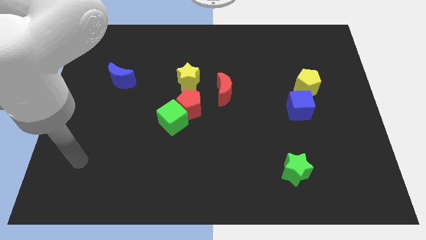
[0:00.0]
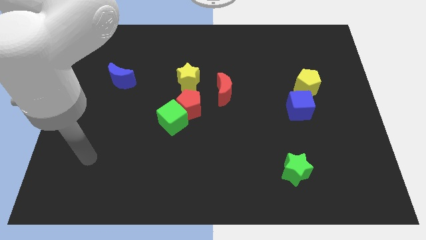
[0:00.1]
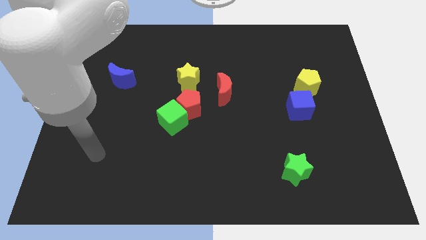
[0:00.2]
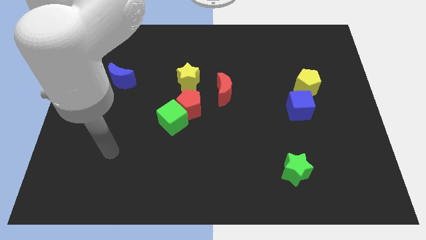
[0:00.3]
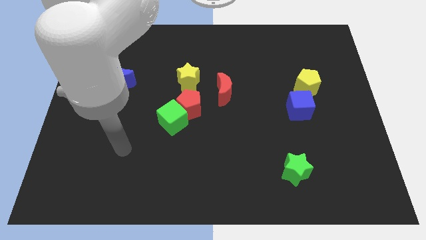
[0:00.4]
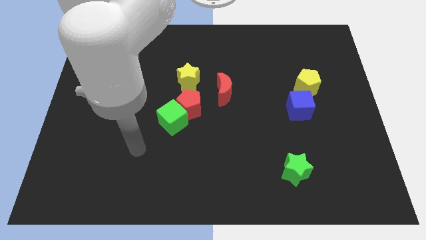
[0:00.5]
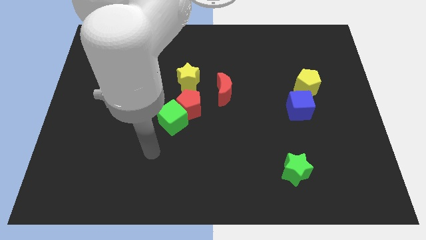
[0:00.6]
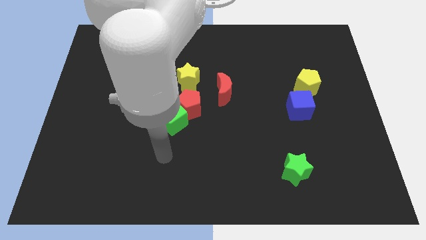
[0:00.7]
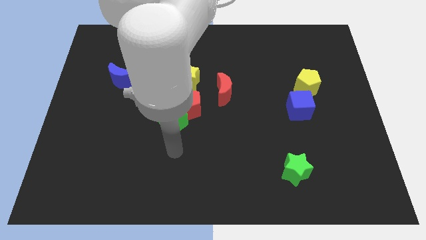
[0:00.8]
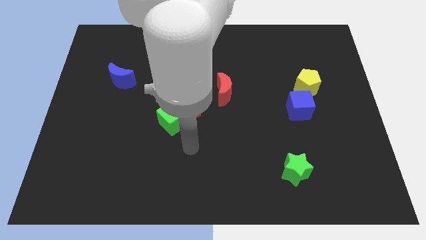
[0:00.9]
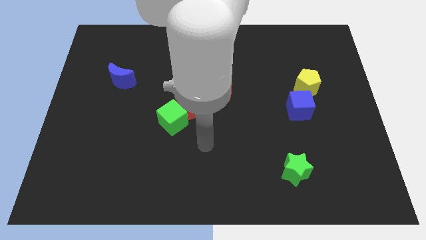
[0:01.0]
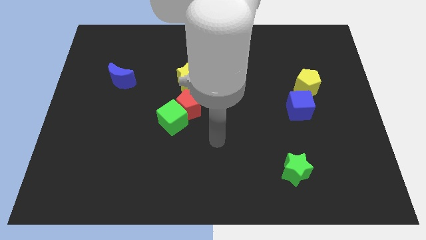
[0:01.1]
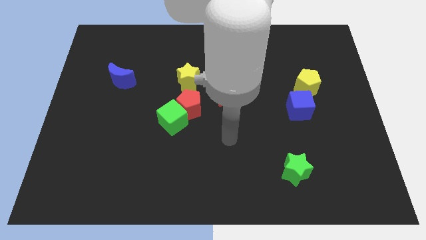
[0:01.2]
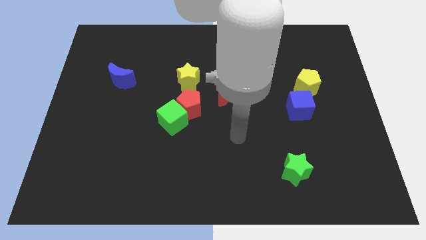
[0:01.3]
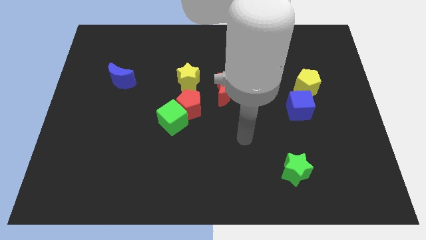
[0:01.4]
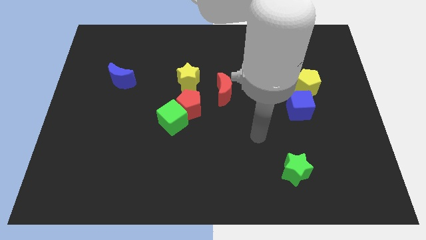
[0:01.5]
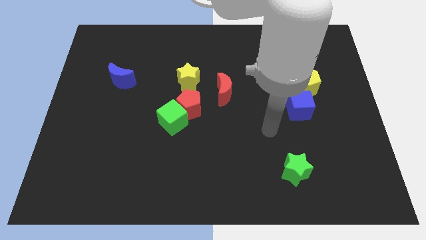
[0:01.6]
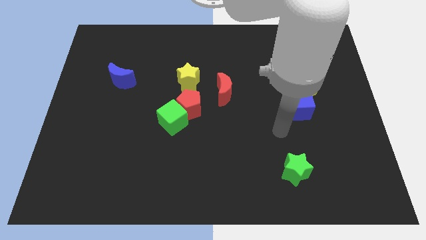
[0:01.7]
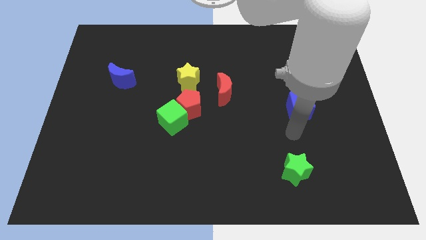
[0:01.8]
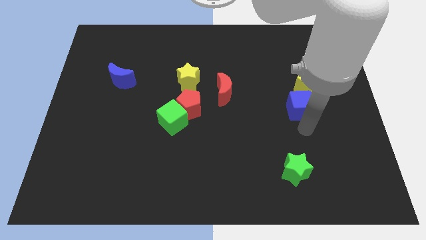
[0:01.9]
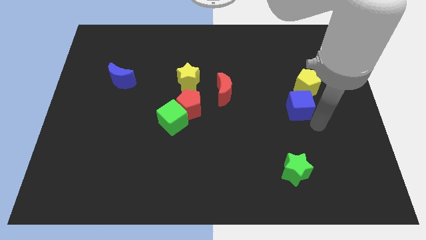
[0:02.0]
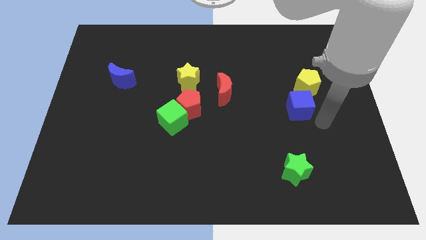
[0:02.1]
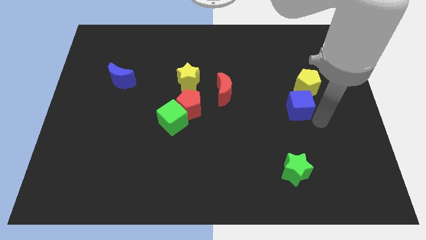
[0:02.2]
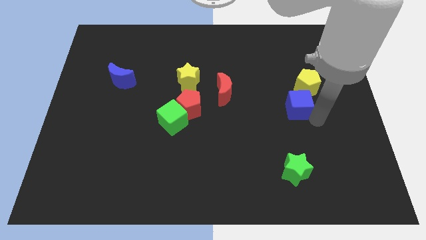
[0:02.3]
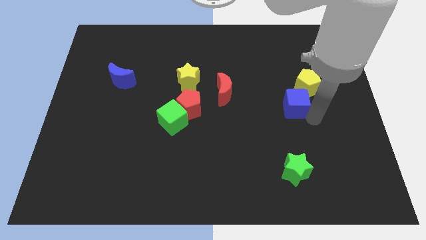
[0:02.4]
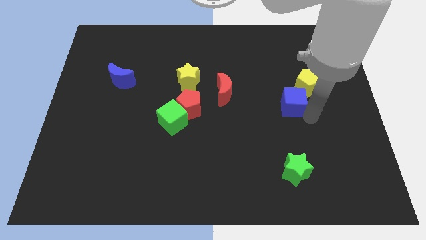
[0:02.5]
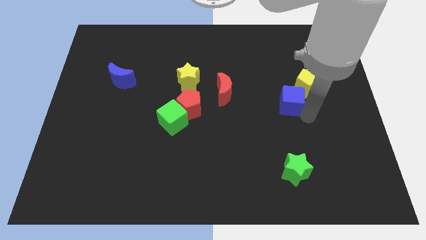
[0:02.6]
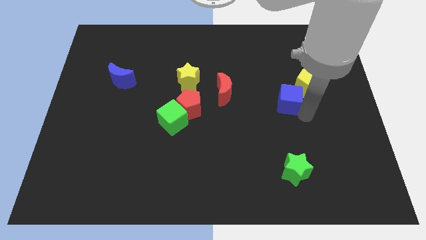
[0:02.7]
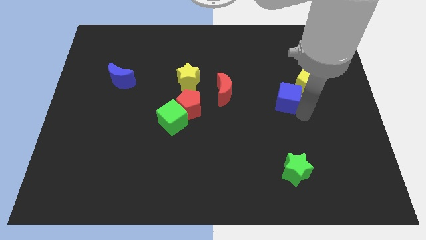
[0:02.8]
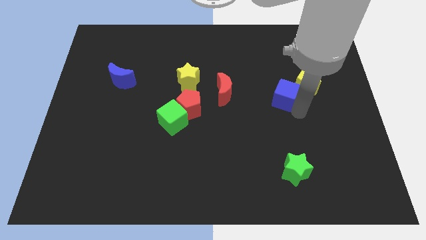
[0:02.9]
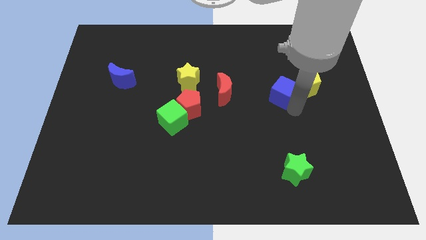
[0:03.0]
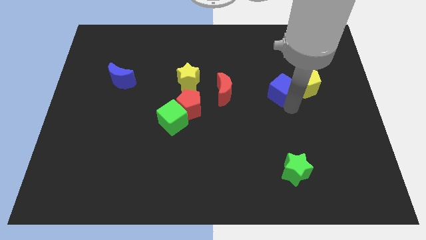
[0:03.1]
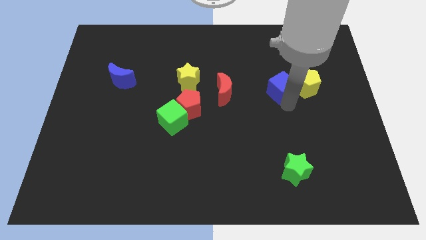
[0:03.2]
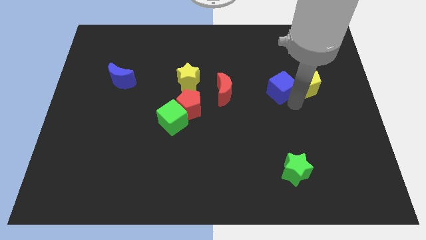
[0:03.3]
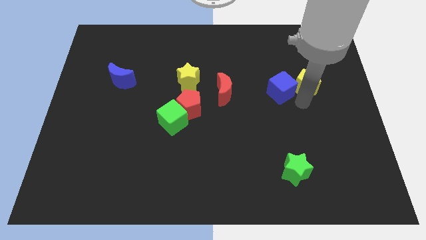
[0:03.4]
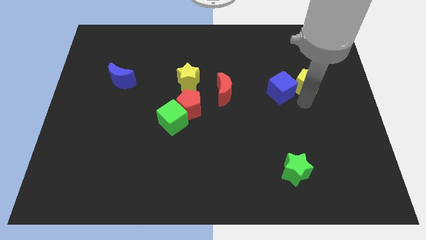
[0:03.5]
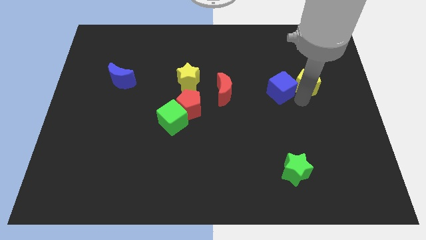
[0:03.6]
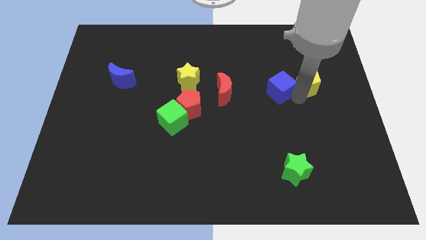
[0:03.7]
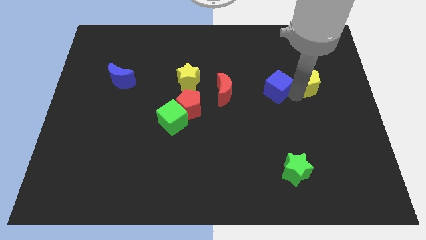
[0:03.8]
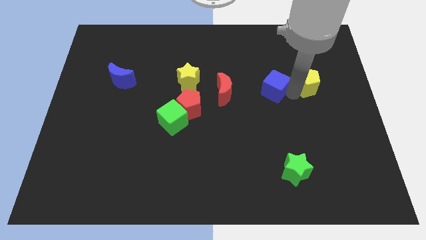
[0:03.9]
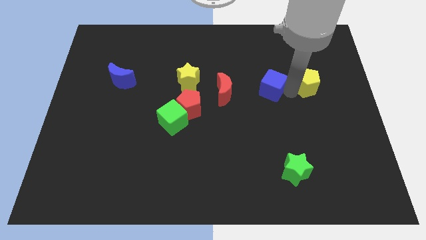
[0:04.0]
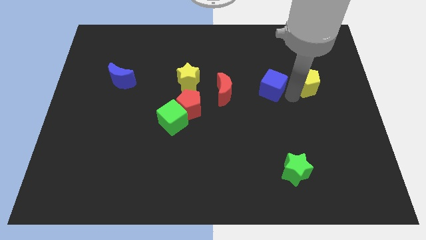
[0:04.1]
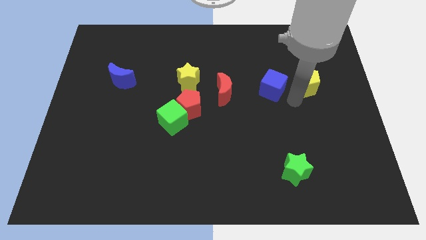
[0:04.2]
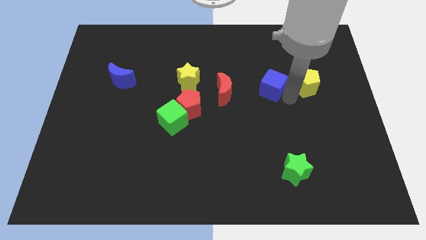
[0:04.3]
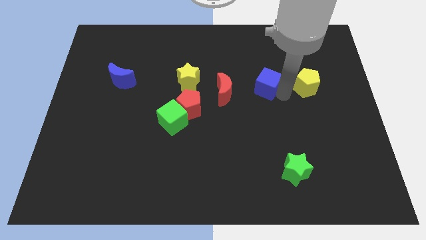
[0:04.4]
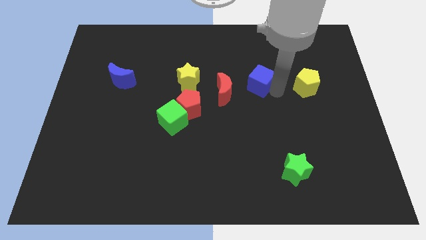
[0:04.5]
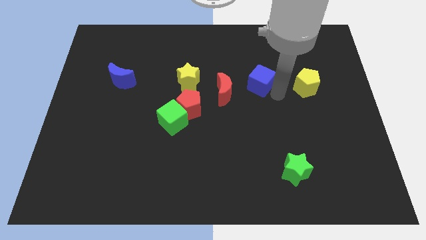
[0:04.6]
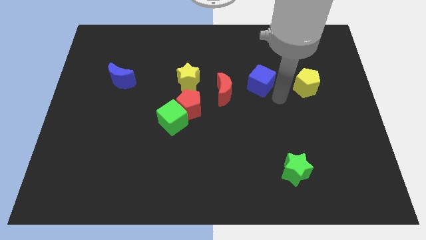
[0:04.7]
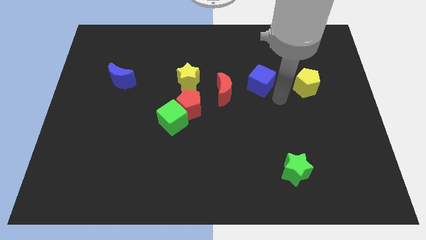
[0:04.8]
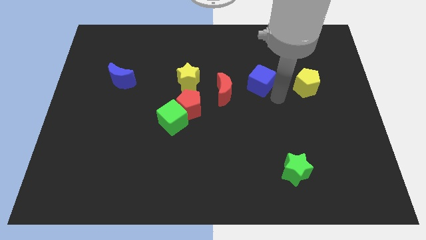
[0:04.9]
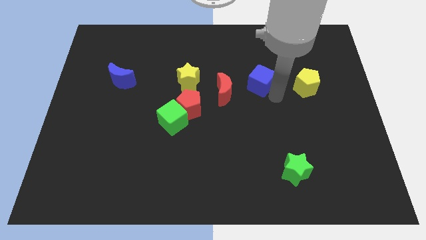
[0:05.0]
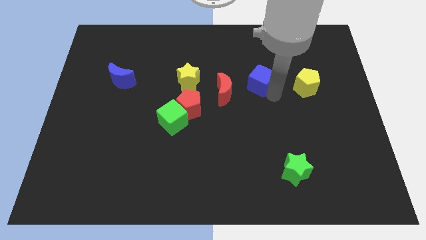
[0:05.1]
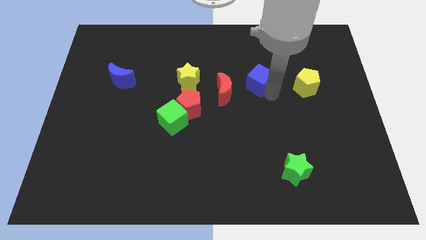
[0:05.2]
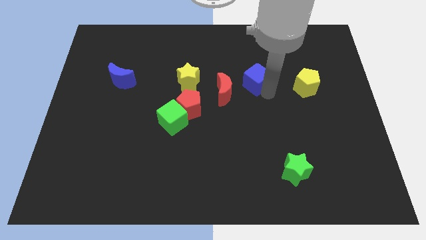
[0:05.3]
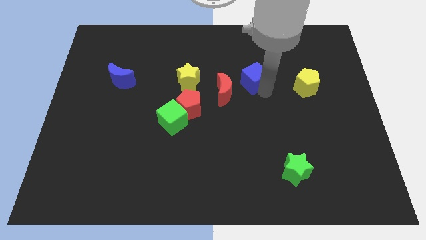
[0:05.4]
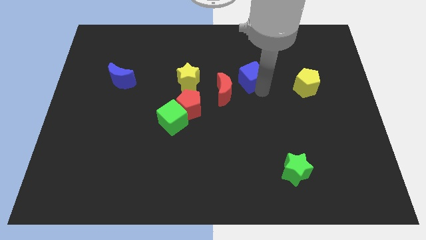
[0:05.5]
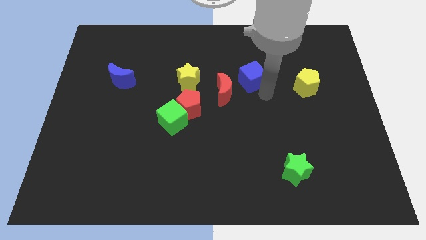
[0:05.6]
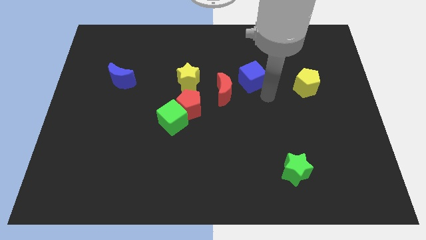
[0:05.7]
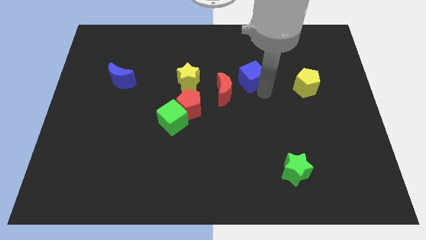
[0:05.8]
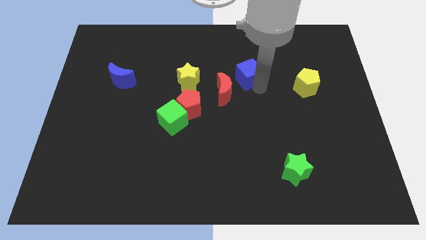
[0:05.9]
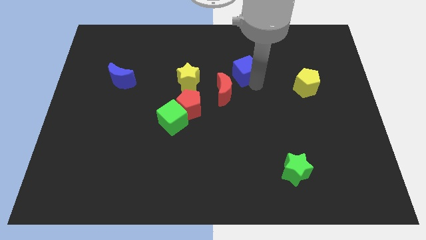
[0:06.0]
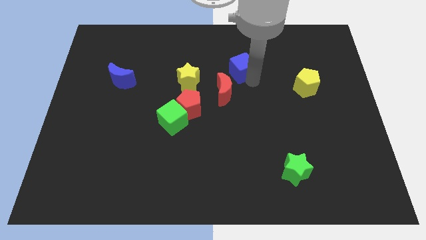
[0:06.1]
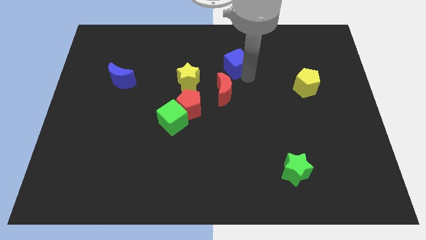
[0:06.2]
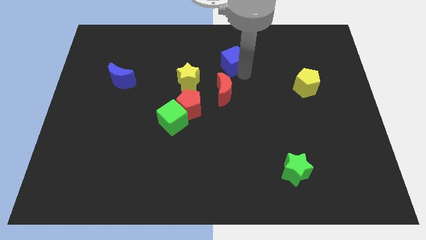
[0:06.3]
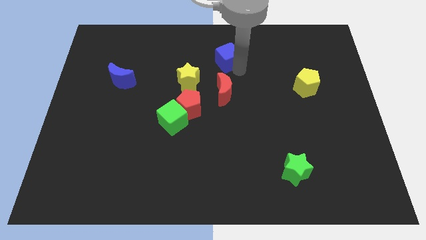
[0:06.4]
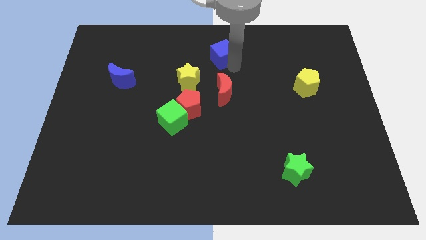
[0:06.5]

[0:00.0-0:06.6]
push the blue cube to the top side

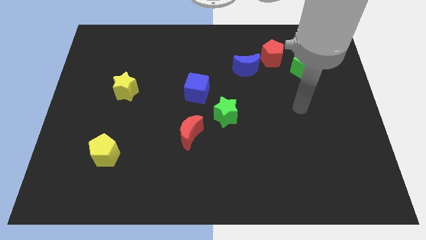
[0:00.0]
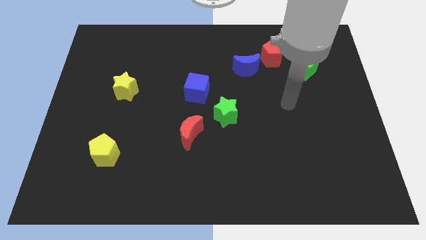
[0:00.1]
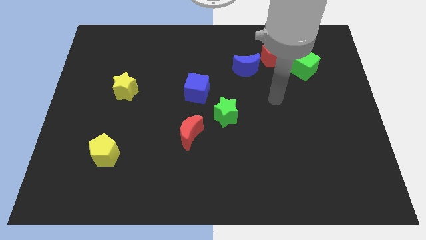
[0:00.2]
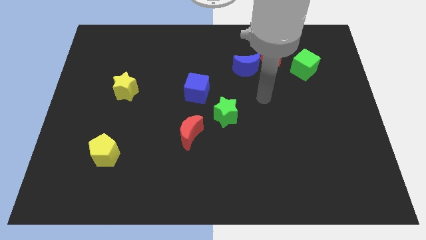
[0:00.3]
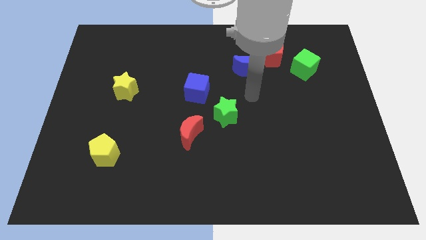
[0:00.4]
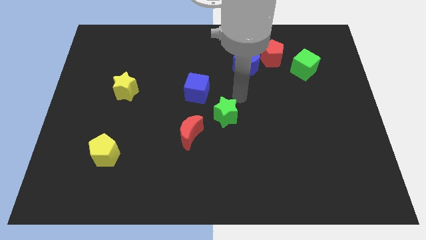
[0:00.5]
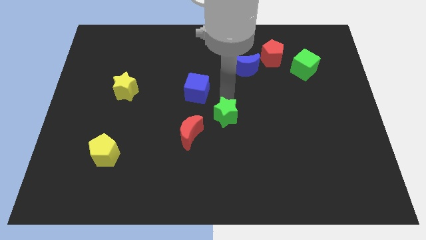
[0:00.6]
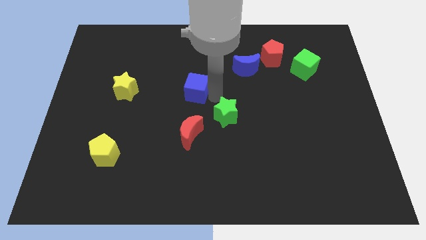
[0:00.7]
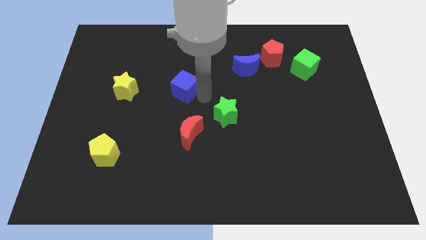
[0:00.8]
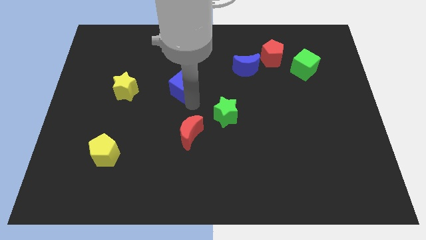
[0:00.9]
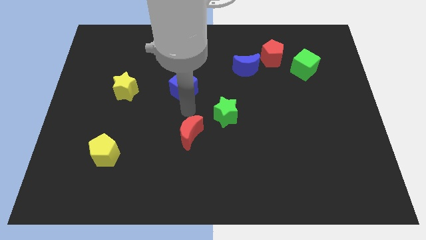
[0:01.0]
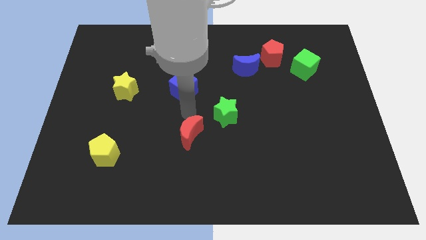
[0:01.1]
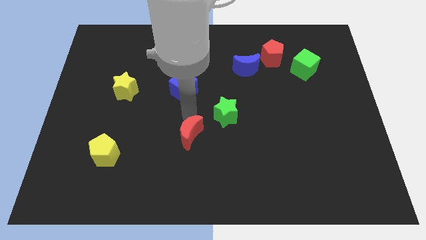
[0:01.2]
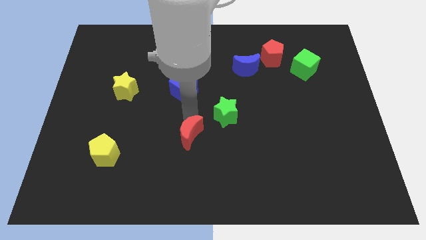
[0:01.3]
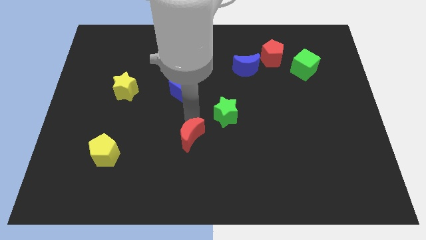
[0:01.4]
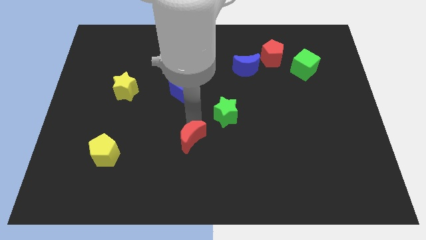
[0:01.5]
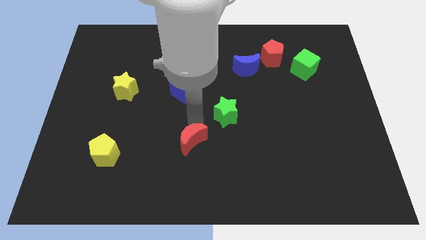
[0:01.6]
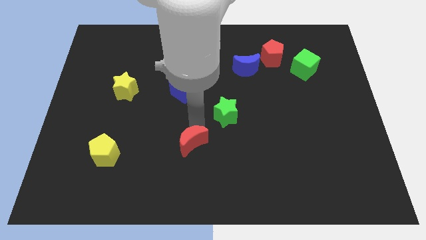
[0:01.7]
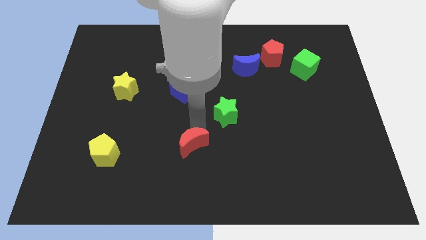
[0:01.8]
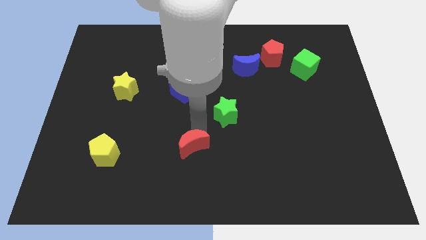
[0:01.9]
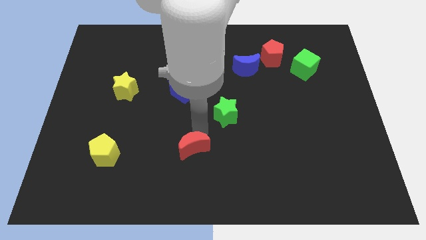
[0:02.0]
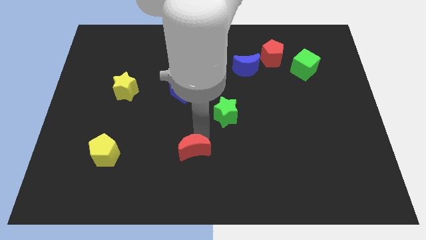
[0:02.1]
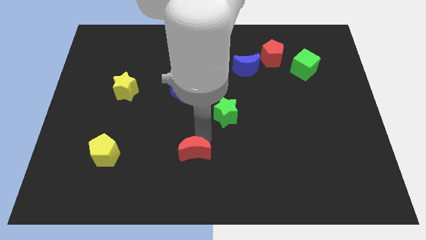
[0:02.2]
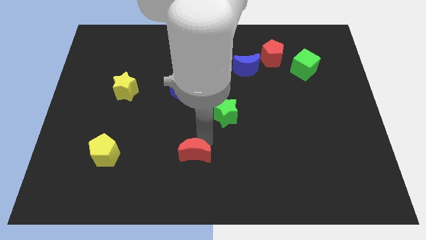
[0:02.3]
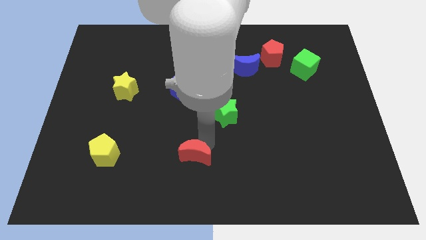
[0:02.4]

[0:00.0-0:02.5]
put the red moon to the bottom side
